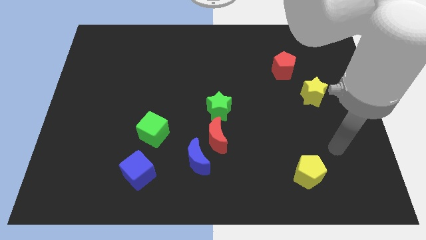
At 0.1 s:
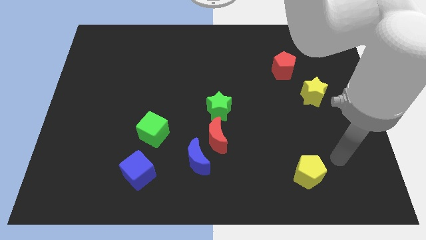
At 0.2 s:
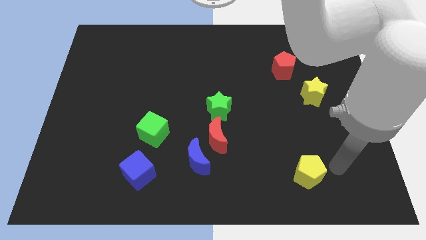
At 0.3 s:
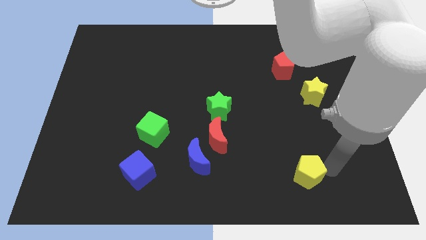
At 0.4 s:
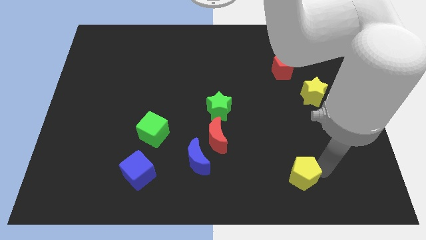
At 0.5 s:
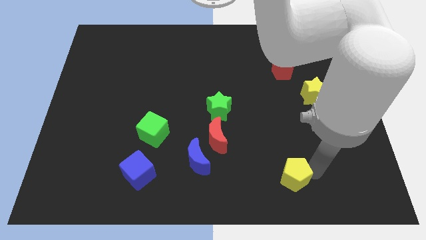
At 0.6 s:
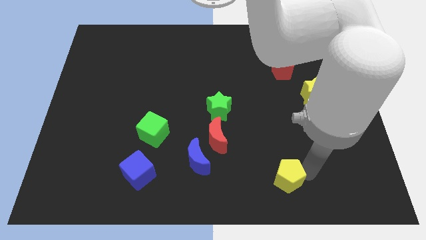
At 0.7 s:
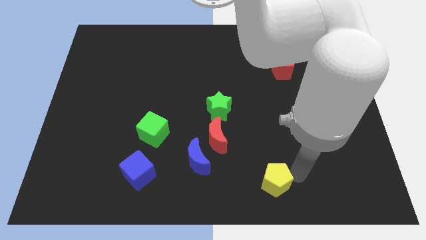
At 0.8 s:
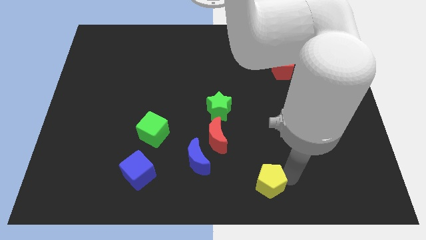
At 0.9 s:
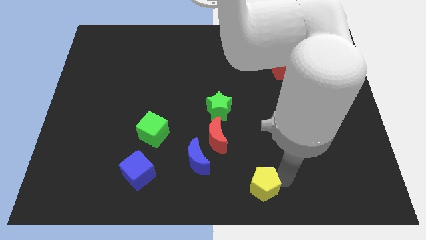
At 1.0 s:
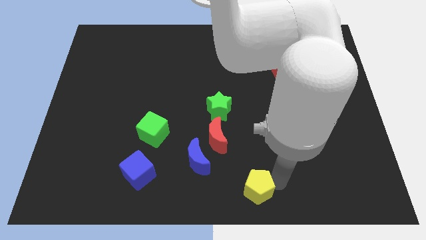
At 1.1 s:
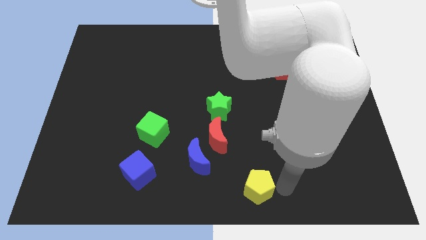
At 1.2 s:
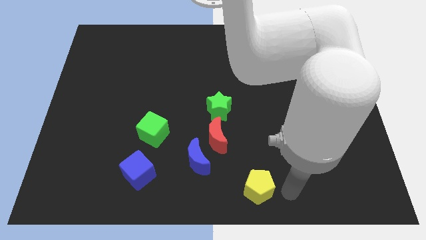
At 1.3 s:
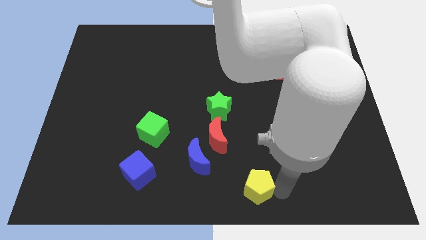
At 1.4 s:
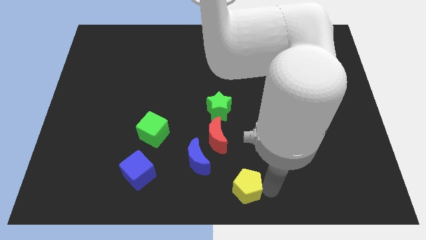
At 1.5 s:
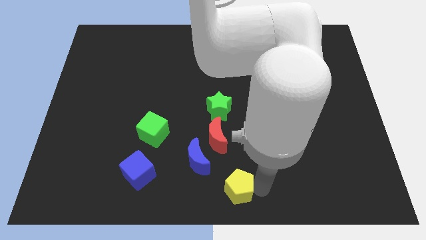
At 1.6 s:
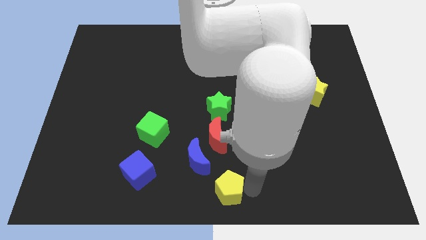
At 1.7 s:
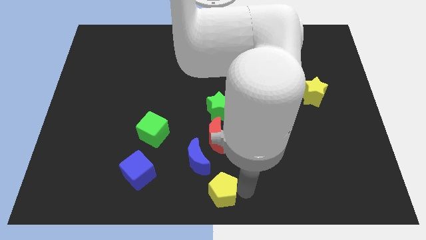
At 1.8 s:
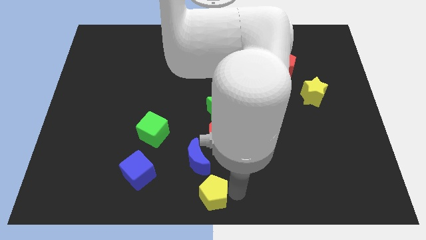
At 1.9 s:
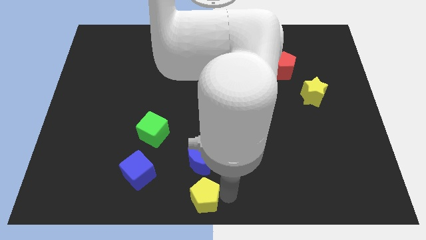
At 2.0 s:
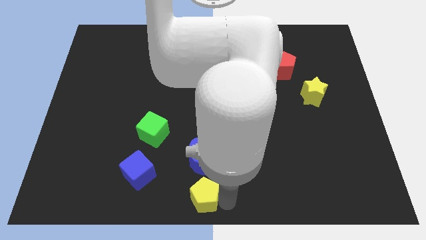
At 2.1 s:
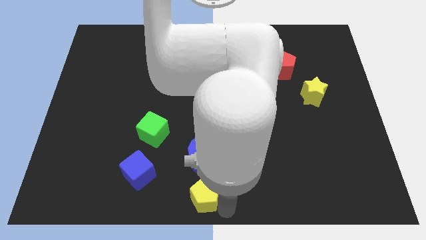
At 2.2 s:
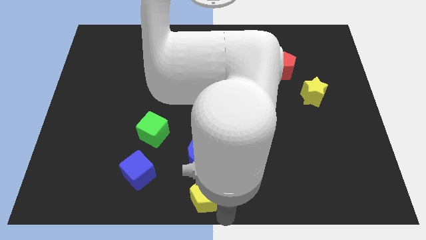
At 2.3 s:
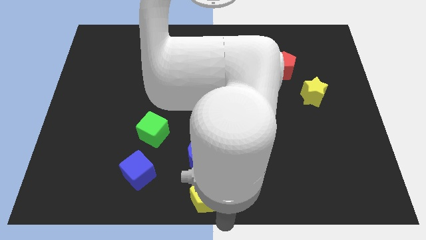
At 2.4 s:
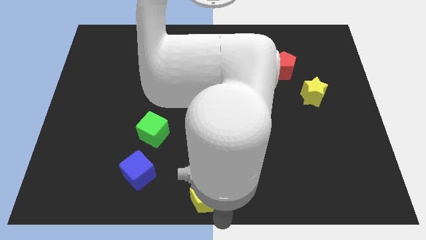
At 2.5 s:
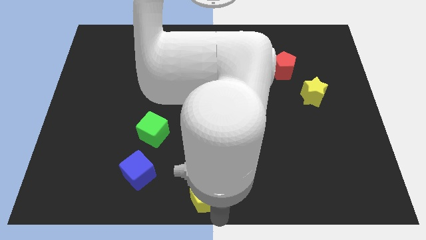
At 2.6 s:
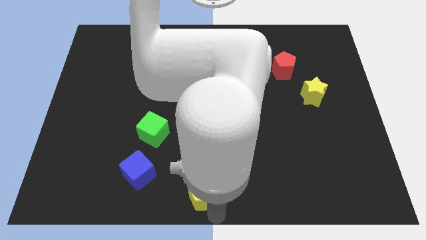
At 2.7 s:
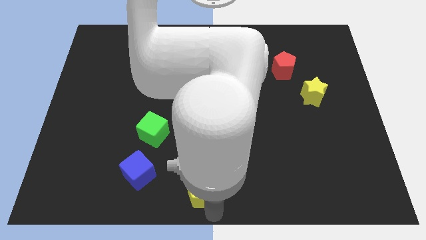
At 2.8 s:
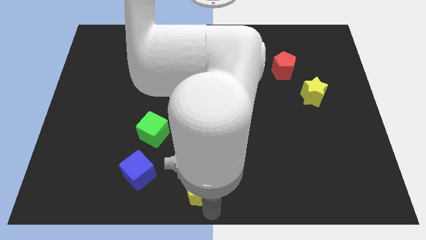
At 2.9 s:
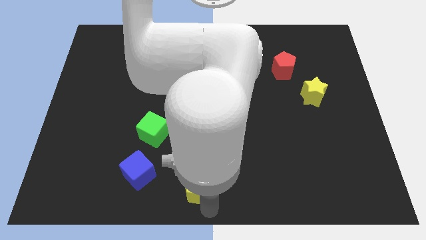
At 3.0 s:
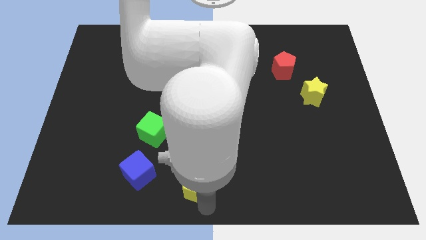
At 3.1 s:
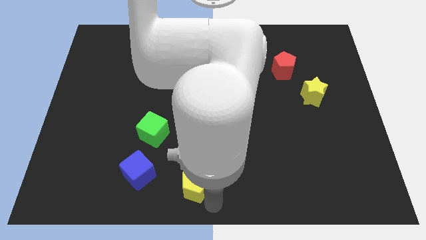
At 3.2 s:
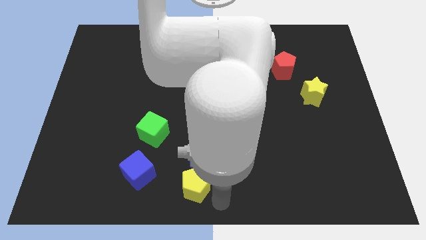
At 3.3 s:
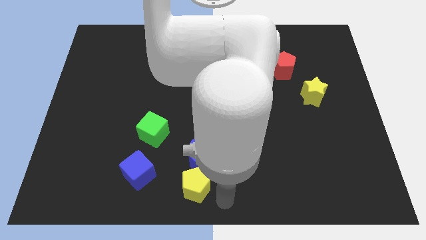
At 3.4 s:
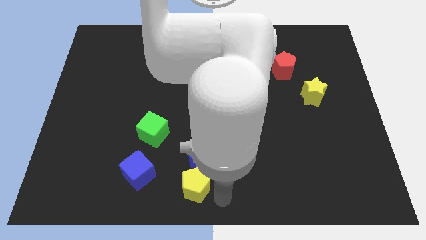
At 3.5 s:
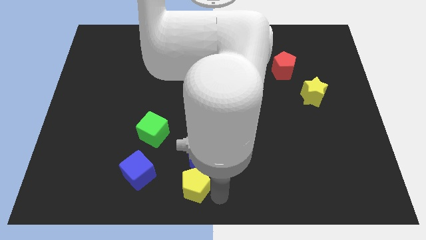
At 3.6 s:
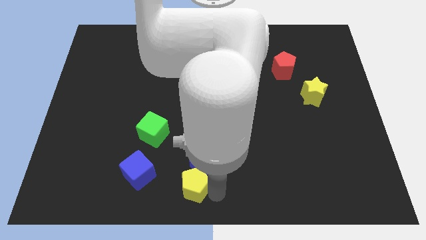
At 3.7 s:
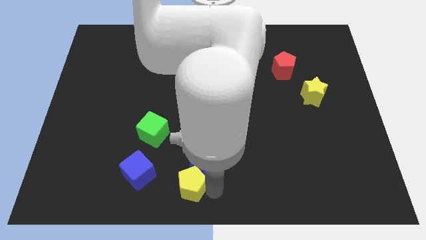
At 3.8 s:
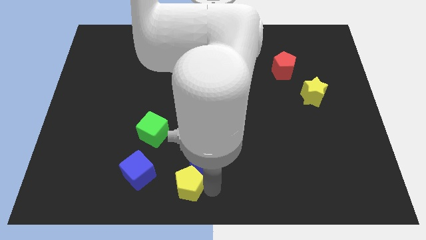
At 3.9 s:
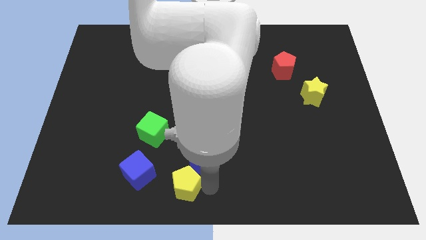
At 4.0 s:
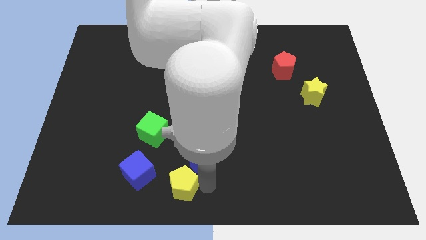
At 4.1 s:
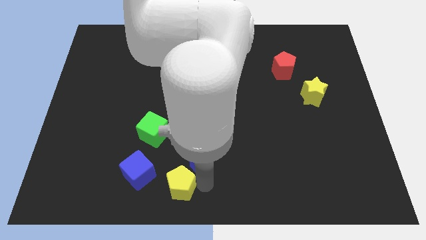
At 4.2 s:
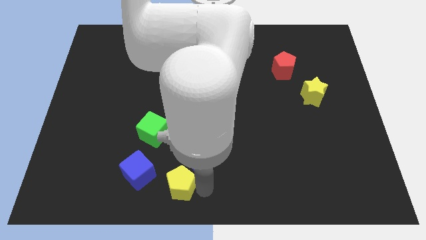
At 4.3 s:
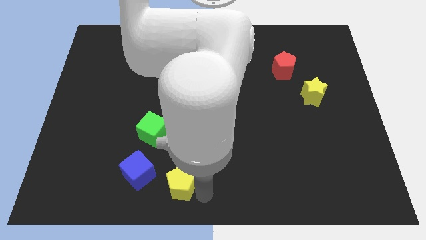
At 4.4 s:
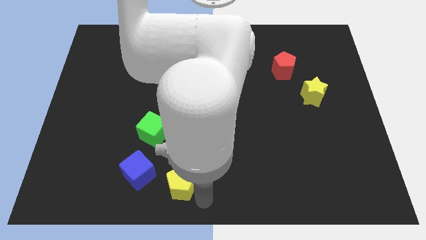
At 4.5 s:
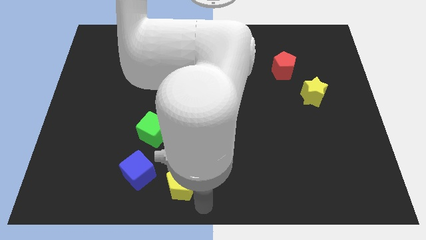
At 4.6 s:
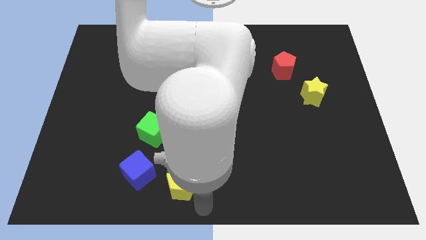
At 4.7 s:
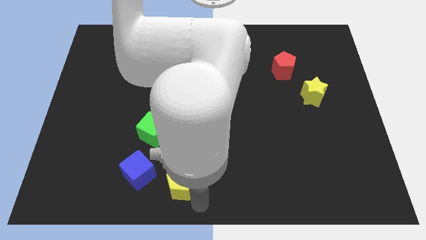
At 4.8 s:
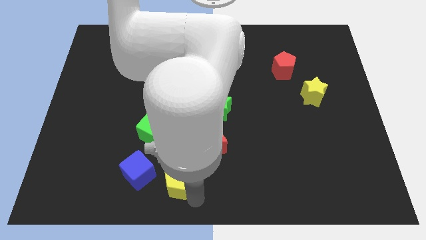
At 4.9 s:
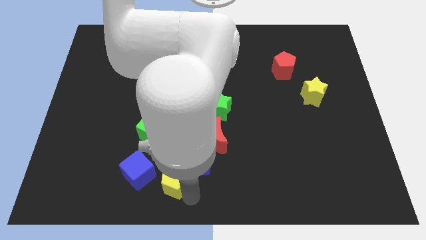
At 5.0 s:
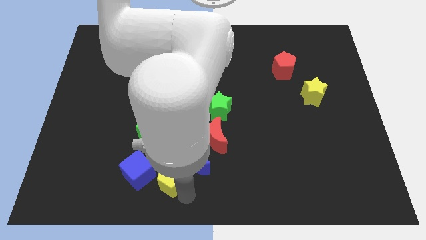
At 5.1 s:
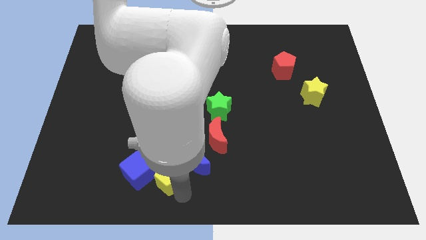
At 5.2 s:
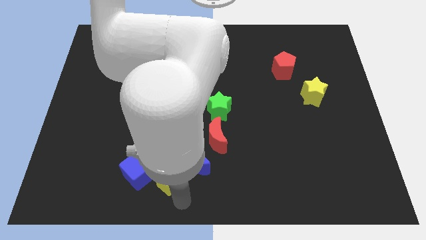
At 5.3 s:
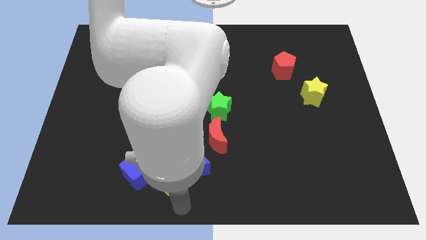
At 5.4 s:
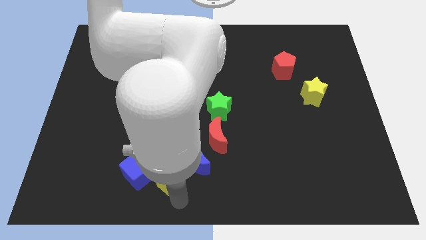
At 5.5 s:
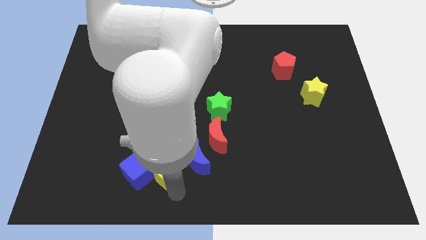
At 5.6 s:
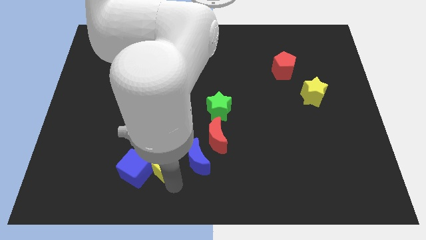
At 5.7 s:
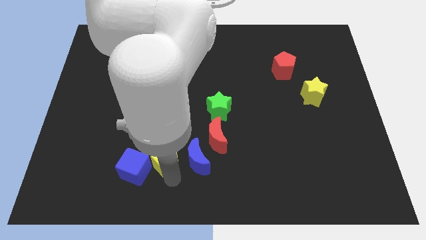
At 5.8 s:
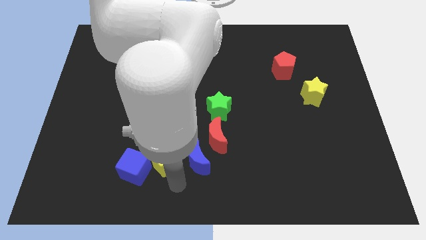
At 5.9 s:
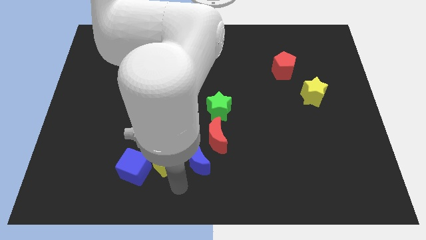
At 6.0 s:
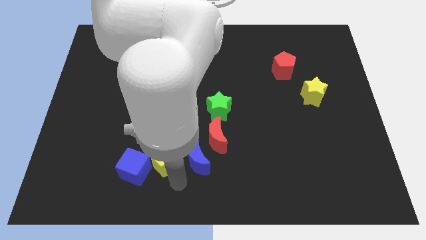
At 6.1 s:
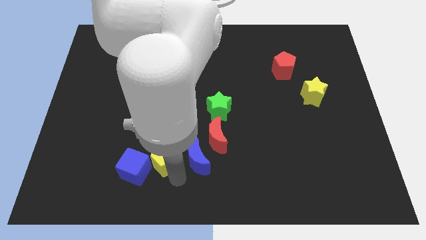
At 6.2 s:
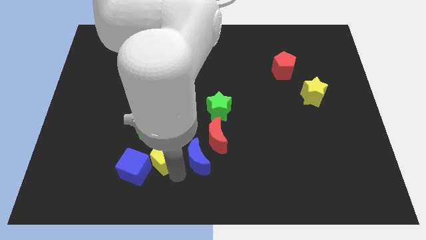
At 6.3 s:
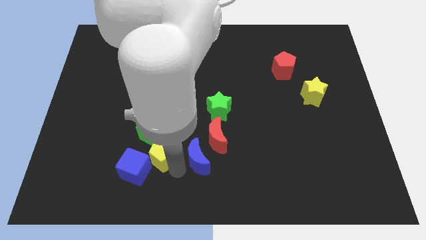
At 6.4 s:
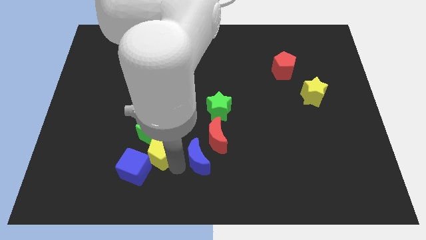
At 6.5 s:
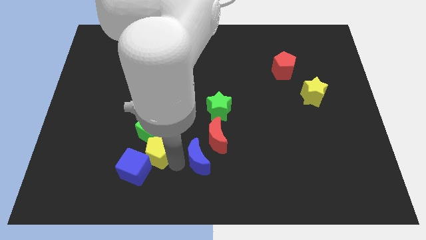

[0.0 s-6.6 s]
push the yellow pentagon close to the green cube

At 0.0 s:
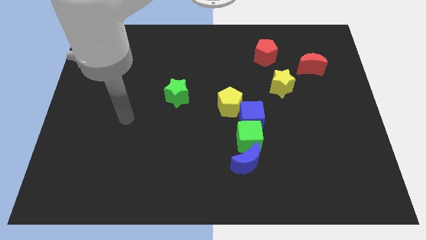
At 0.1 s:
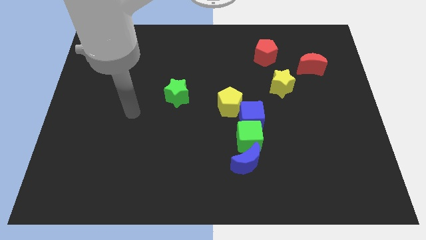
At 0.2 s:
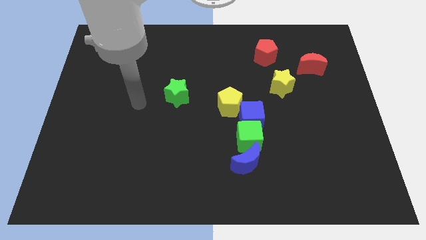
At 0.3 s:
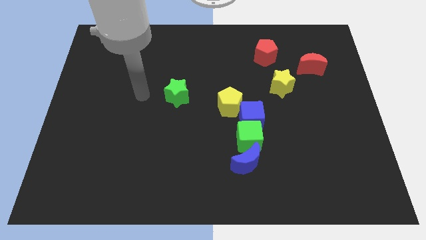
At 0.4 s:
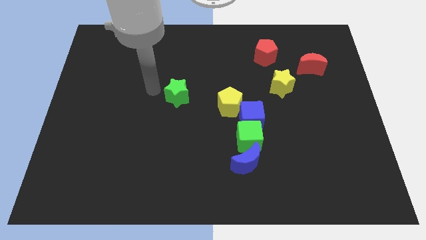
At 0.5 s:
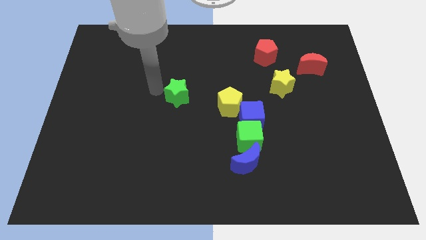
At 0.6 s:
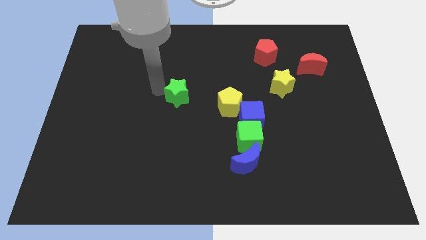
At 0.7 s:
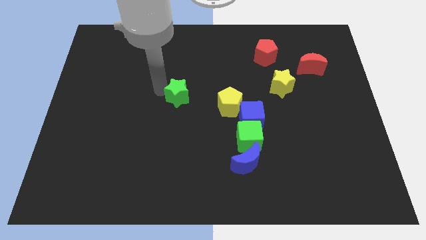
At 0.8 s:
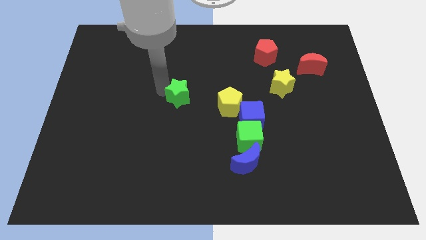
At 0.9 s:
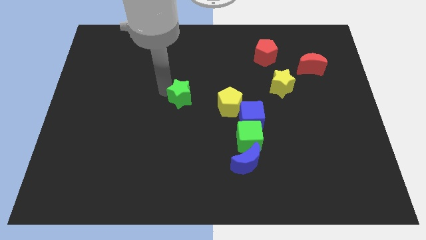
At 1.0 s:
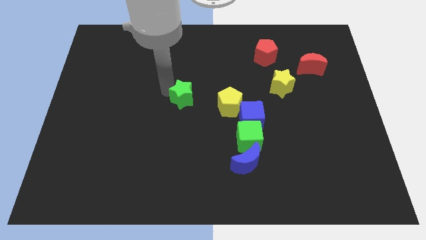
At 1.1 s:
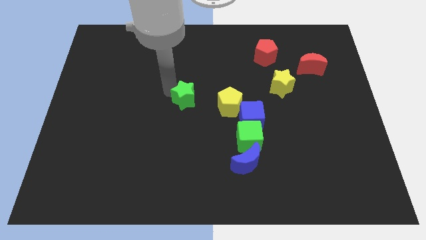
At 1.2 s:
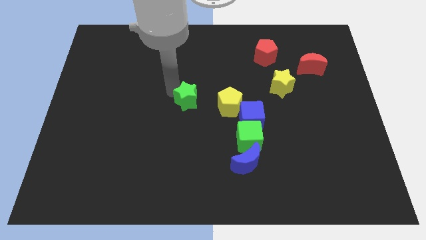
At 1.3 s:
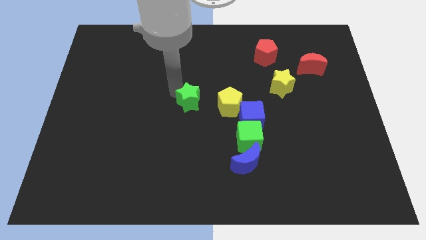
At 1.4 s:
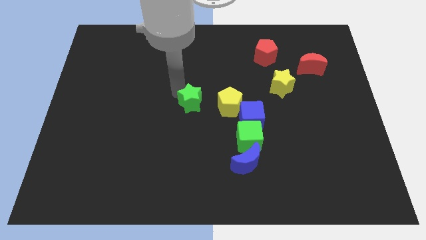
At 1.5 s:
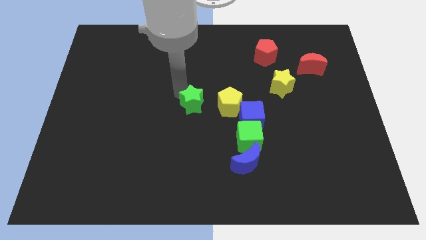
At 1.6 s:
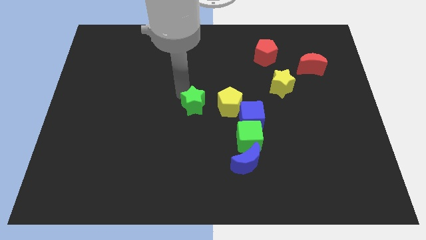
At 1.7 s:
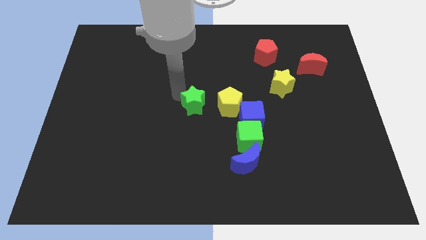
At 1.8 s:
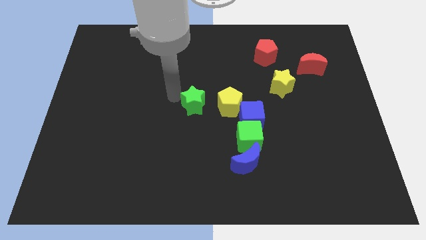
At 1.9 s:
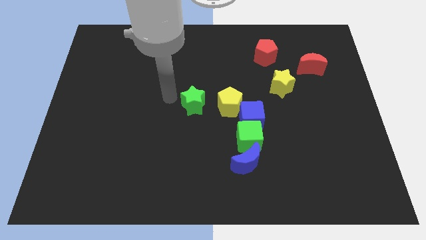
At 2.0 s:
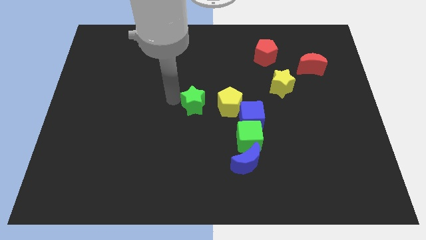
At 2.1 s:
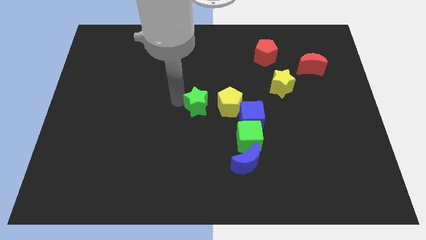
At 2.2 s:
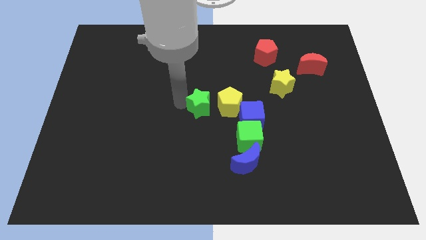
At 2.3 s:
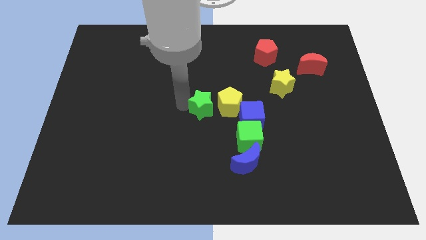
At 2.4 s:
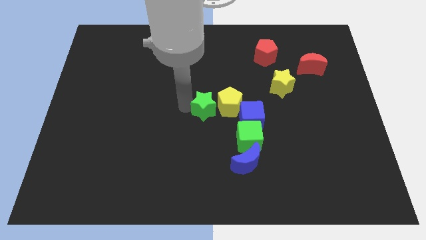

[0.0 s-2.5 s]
move the green star towards the yellow pentagon
